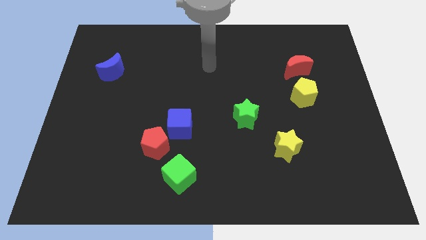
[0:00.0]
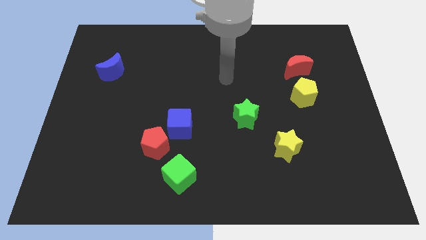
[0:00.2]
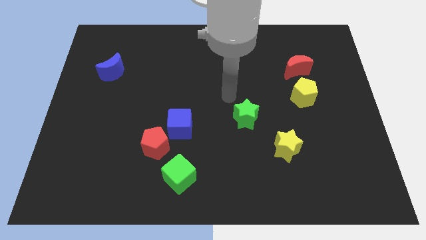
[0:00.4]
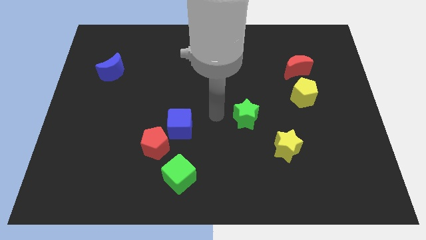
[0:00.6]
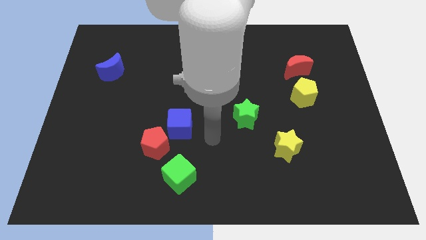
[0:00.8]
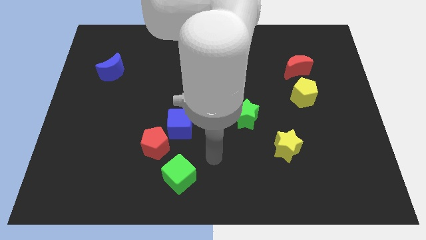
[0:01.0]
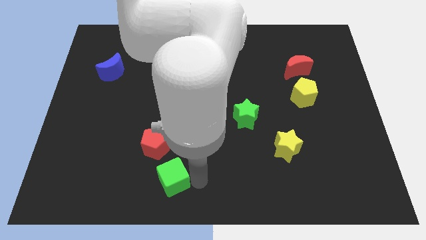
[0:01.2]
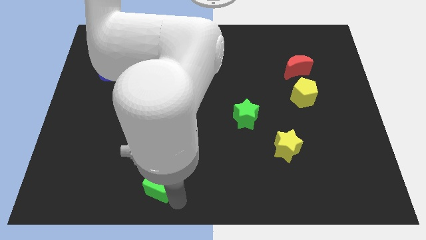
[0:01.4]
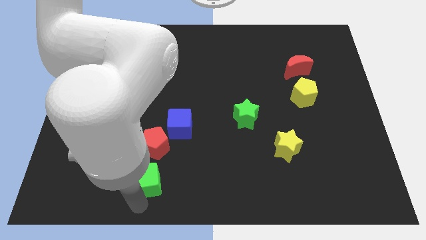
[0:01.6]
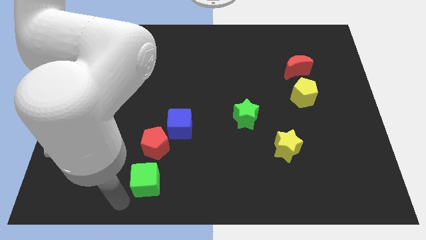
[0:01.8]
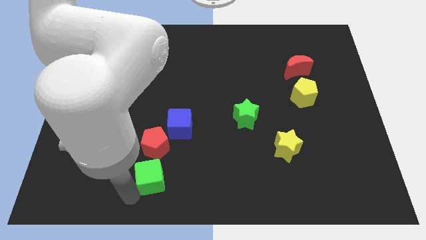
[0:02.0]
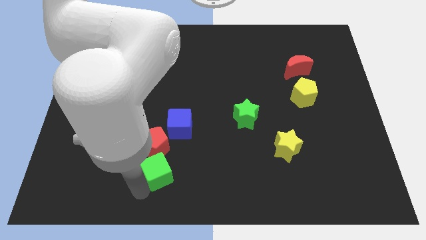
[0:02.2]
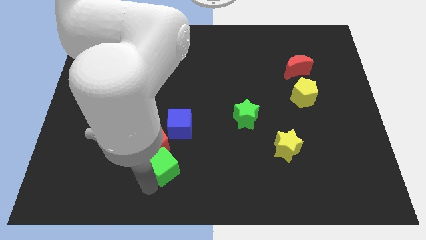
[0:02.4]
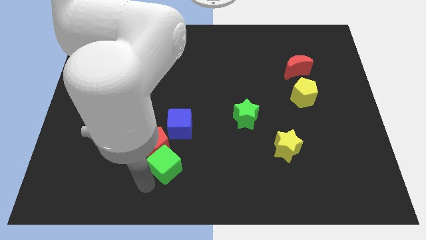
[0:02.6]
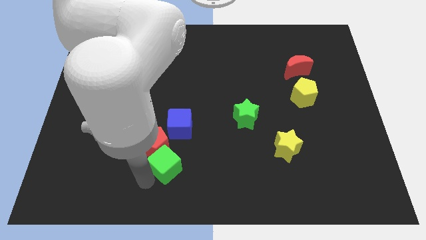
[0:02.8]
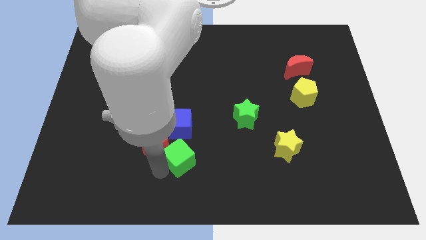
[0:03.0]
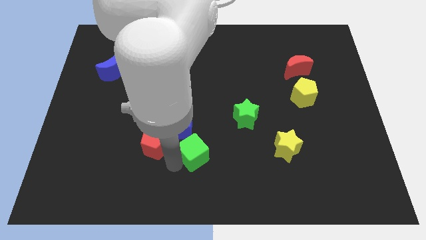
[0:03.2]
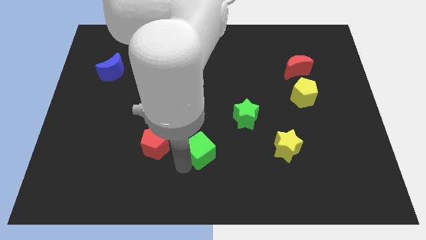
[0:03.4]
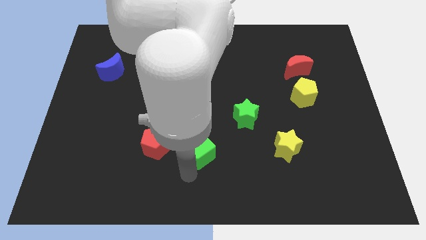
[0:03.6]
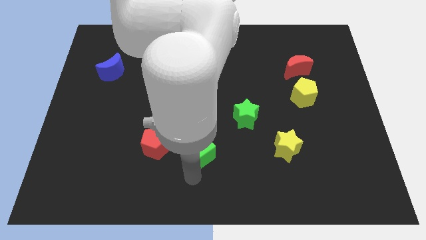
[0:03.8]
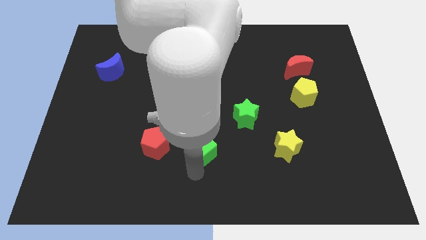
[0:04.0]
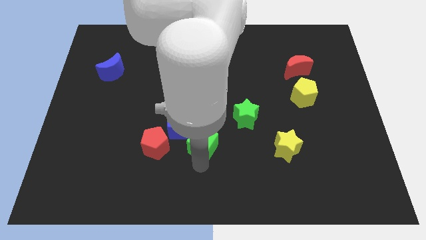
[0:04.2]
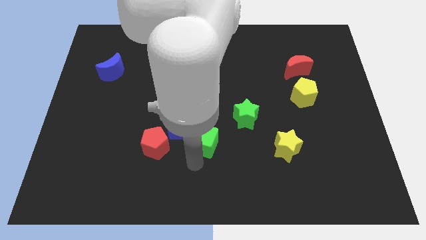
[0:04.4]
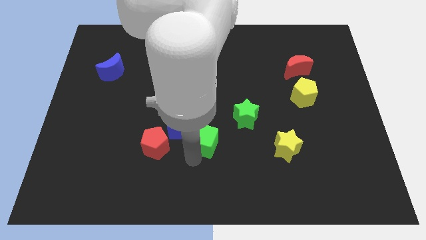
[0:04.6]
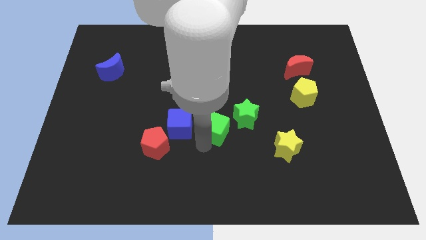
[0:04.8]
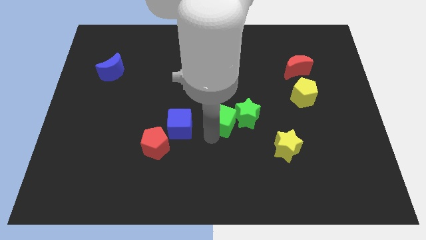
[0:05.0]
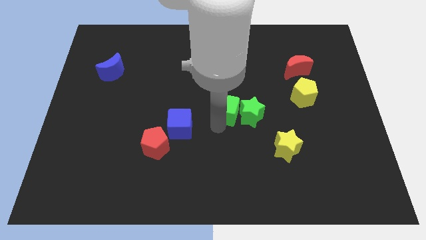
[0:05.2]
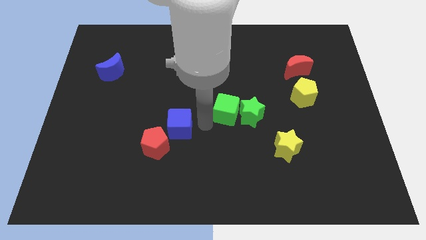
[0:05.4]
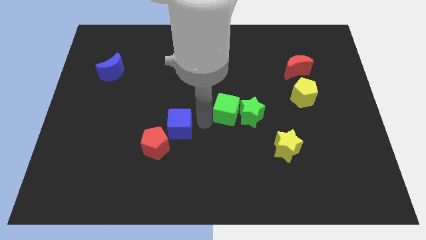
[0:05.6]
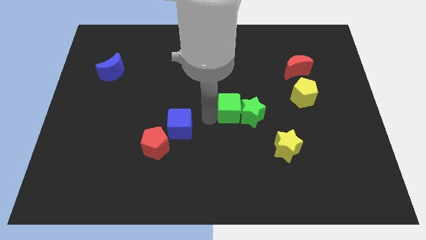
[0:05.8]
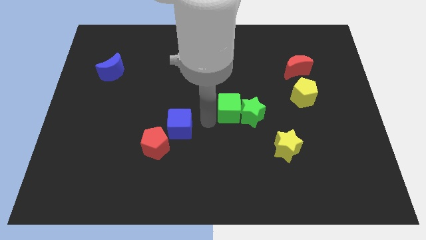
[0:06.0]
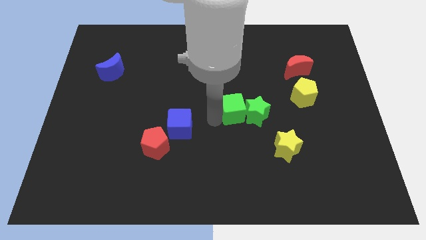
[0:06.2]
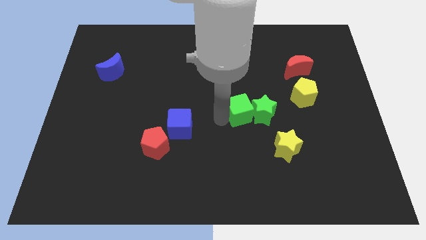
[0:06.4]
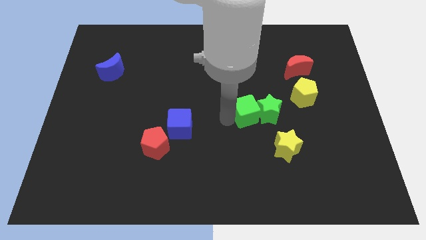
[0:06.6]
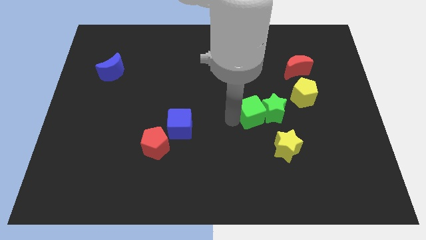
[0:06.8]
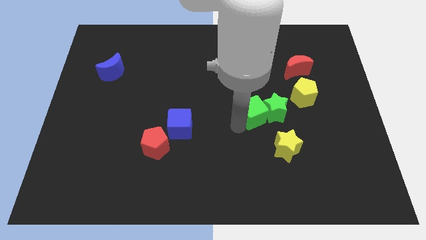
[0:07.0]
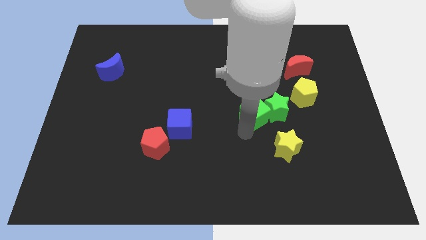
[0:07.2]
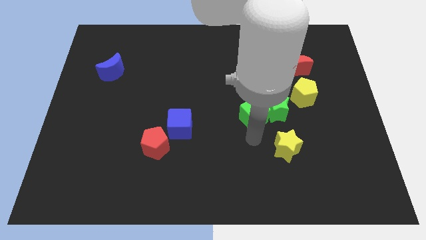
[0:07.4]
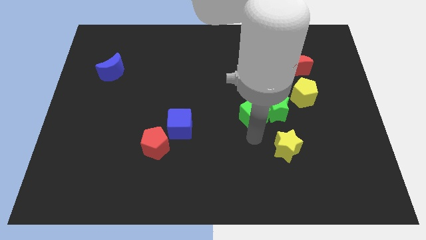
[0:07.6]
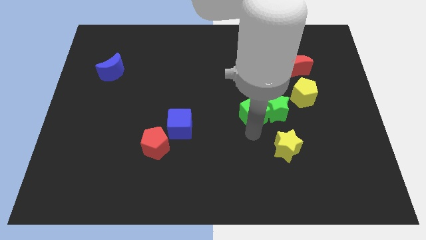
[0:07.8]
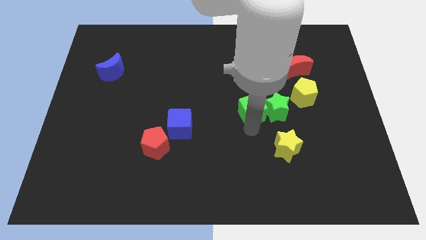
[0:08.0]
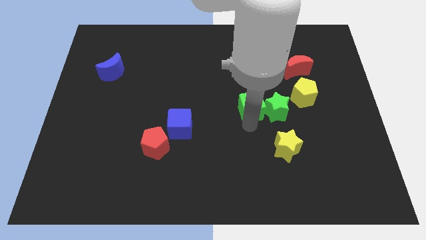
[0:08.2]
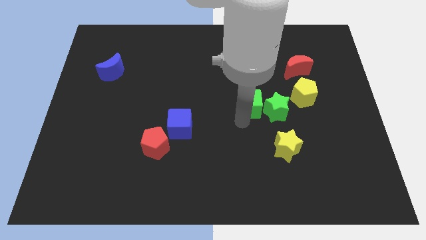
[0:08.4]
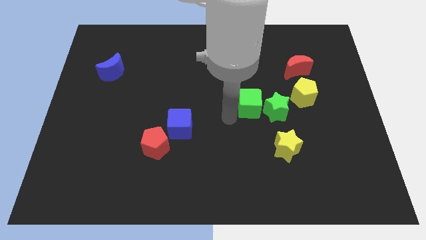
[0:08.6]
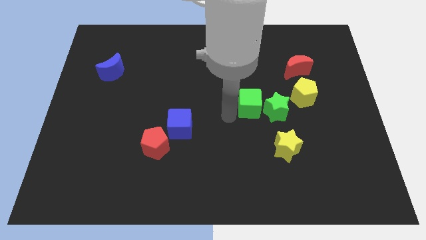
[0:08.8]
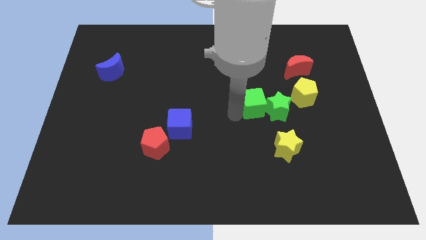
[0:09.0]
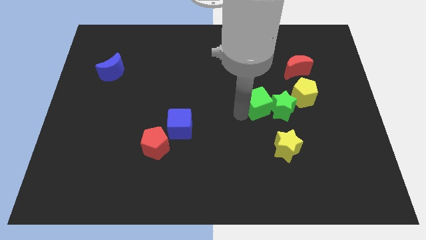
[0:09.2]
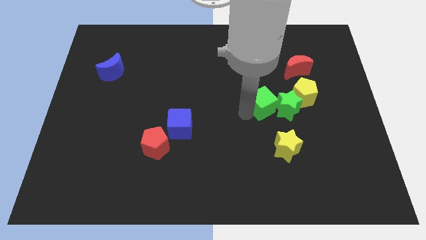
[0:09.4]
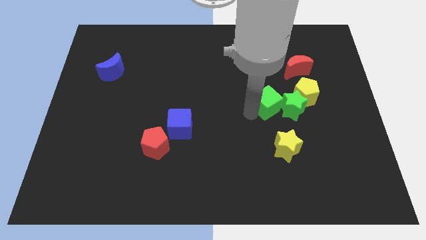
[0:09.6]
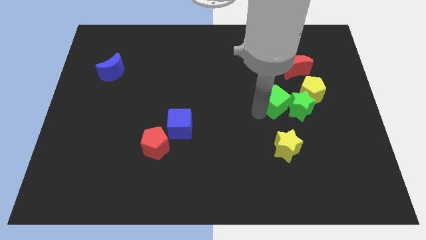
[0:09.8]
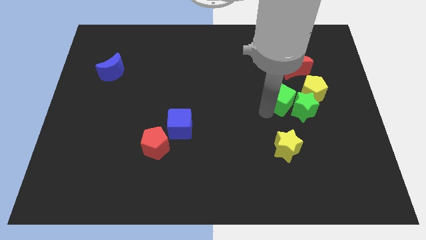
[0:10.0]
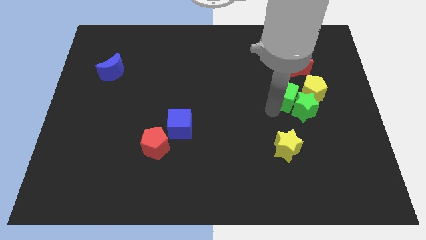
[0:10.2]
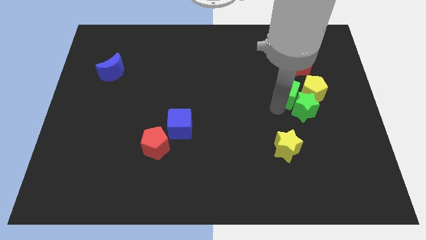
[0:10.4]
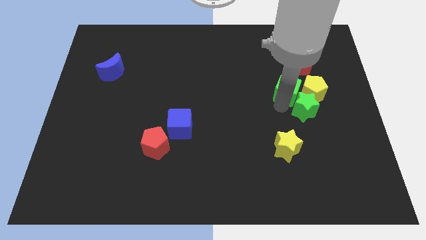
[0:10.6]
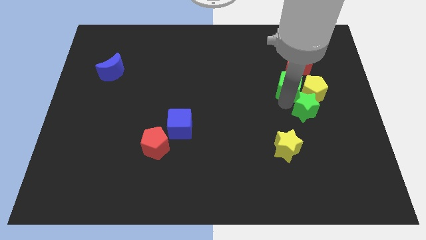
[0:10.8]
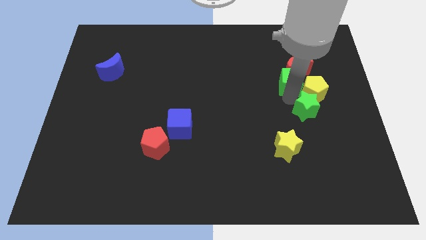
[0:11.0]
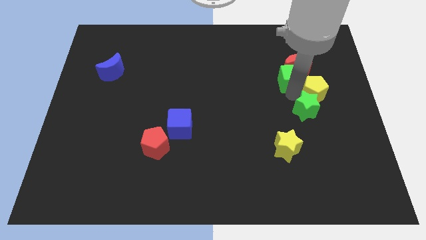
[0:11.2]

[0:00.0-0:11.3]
push the green cube to the bottom right side of the red moon

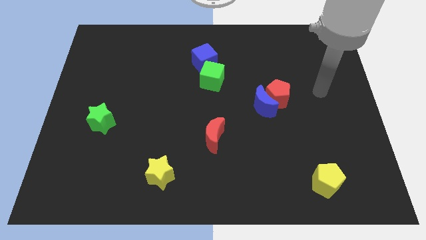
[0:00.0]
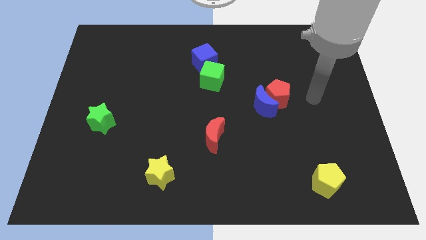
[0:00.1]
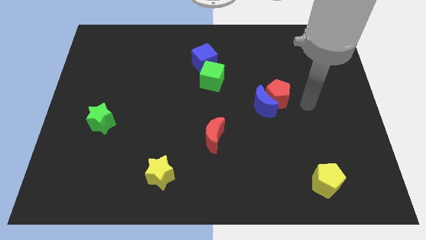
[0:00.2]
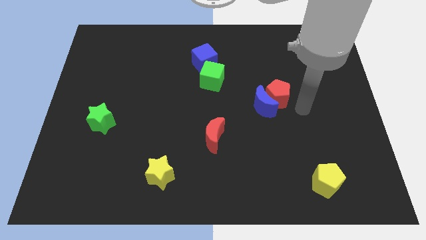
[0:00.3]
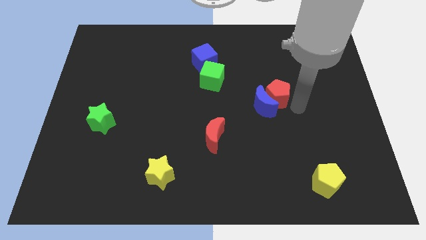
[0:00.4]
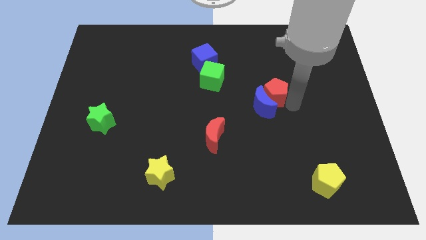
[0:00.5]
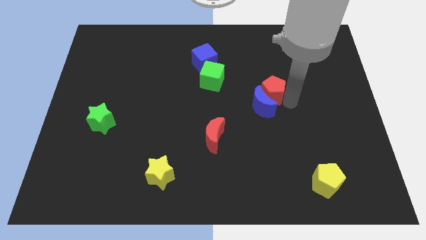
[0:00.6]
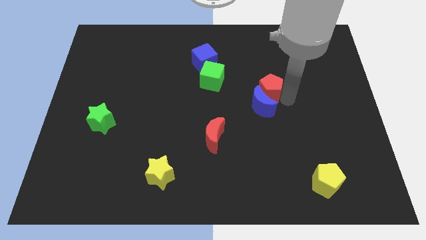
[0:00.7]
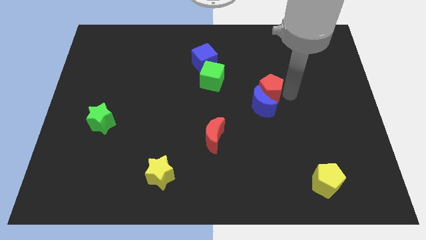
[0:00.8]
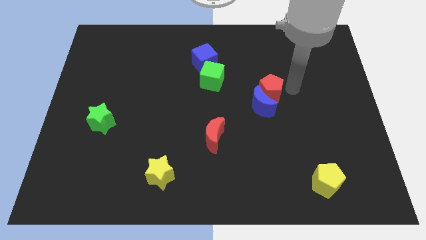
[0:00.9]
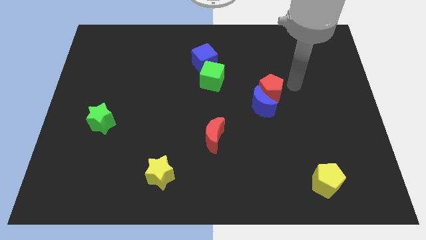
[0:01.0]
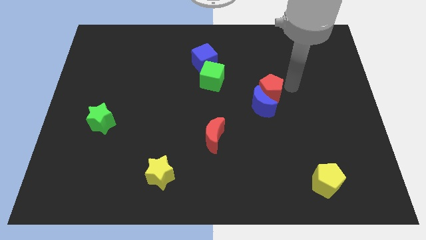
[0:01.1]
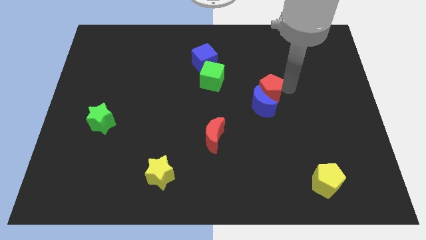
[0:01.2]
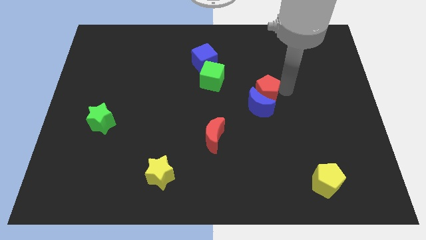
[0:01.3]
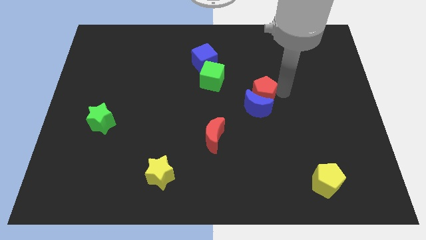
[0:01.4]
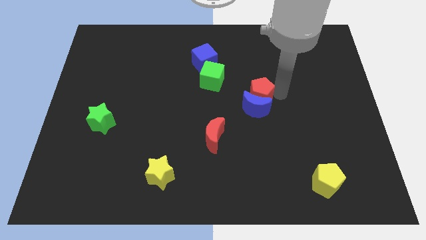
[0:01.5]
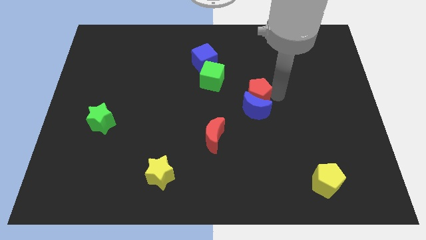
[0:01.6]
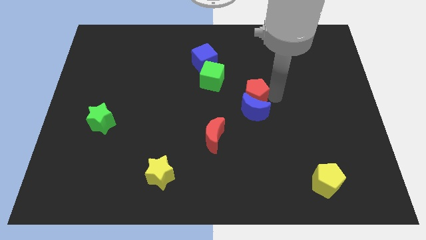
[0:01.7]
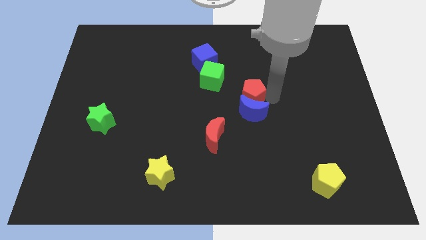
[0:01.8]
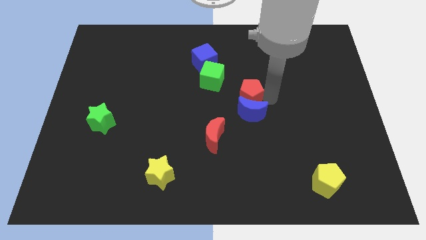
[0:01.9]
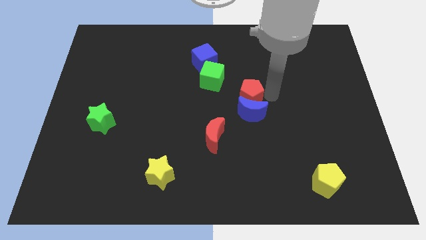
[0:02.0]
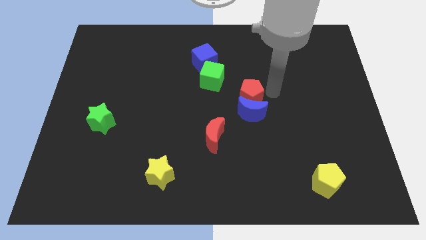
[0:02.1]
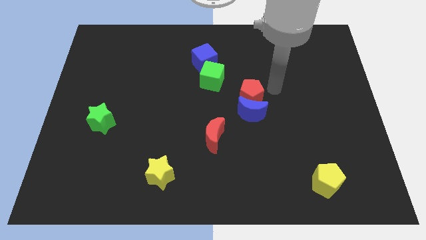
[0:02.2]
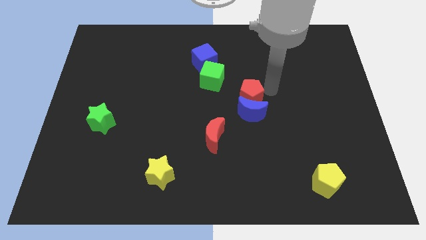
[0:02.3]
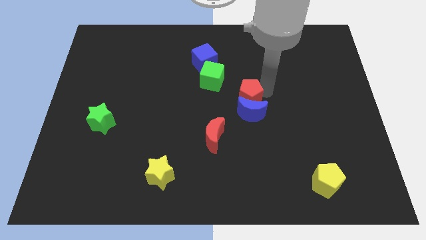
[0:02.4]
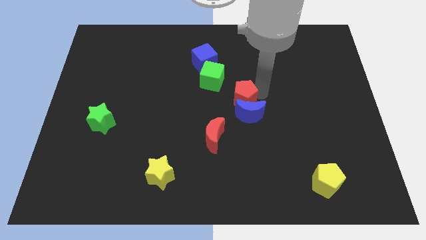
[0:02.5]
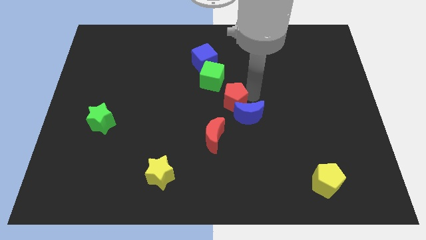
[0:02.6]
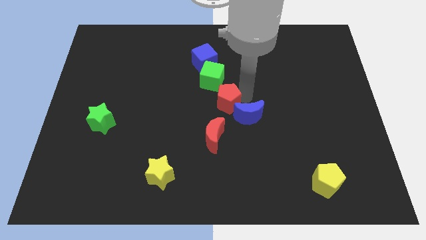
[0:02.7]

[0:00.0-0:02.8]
move the red pentagon to the bottom side of the green cube
